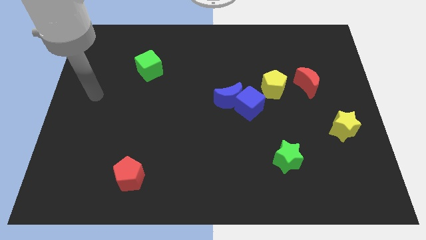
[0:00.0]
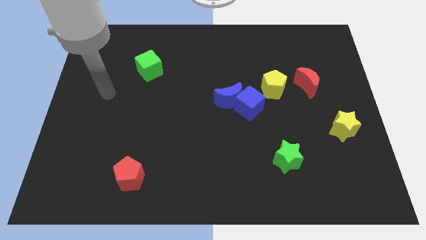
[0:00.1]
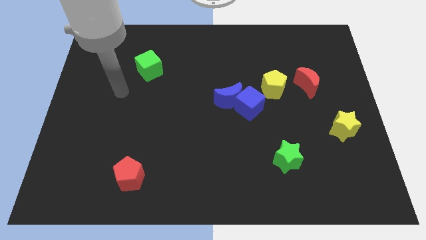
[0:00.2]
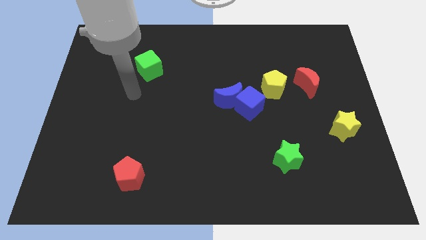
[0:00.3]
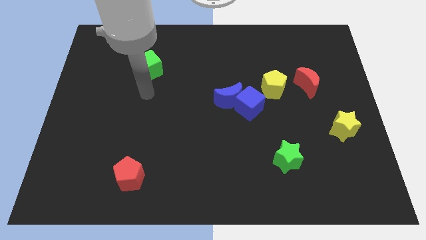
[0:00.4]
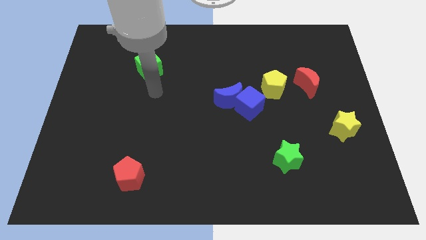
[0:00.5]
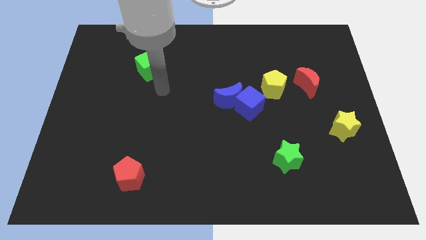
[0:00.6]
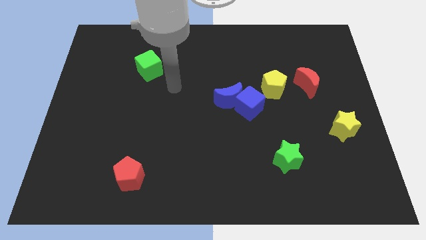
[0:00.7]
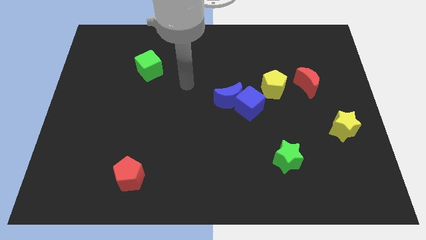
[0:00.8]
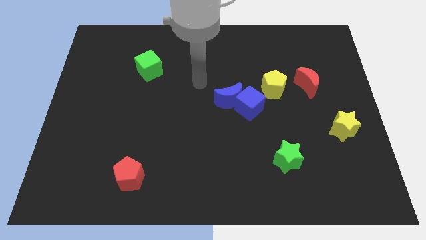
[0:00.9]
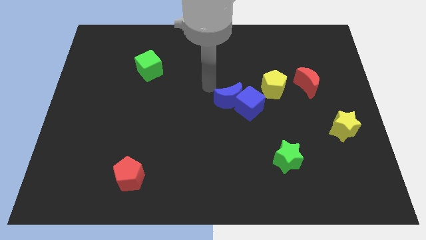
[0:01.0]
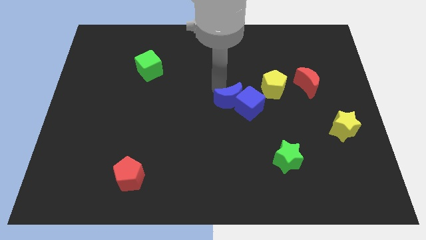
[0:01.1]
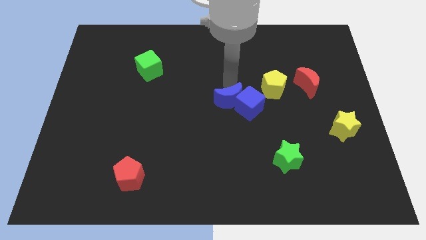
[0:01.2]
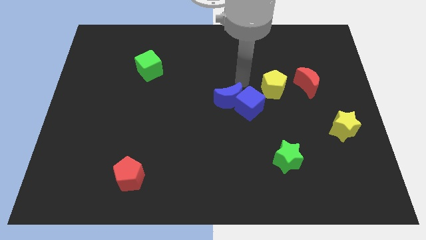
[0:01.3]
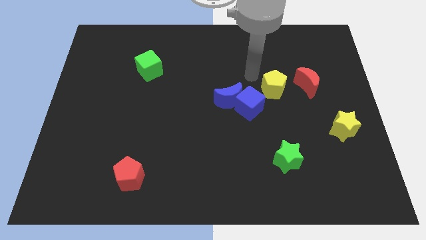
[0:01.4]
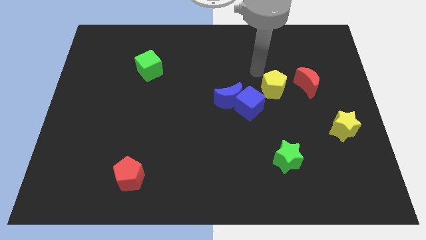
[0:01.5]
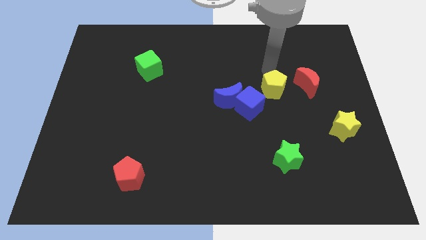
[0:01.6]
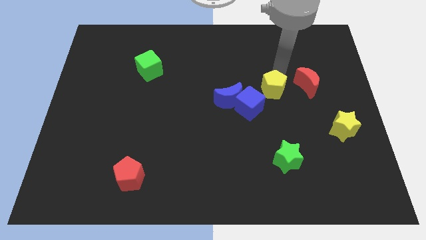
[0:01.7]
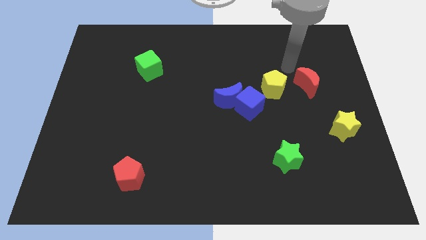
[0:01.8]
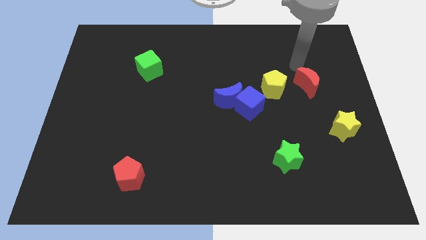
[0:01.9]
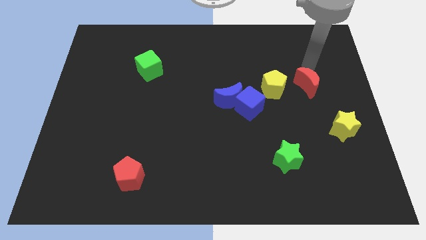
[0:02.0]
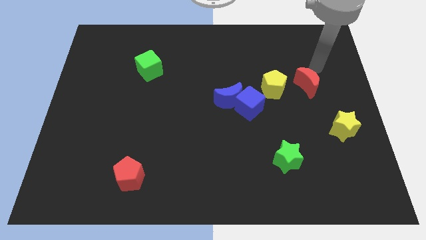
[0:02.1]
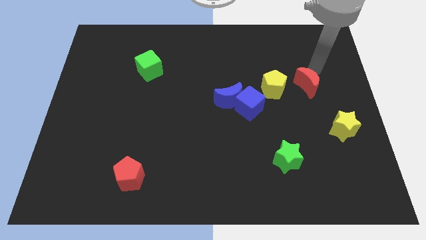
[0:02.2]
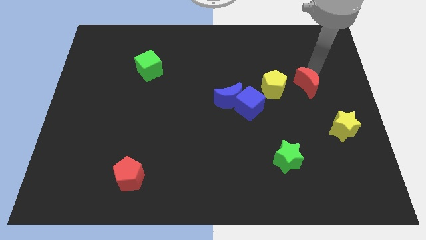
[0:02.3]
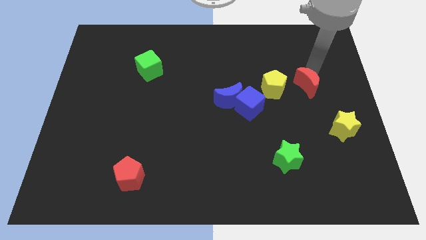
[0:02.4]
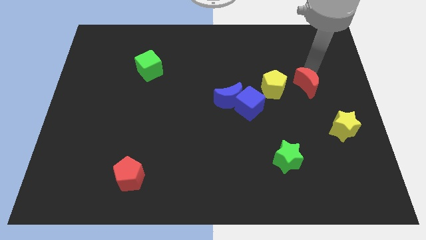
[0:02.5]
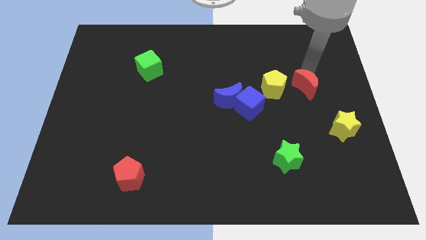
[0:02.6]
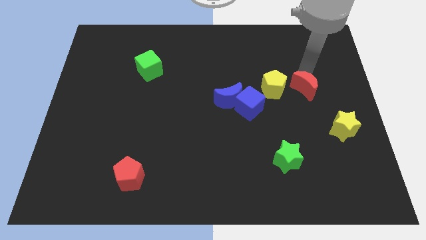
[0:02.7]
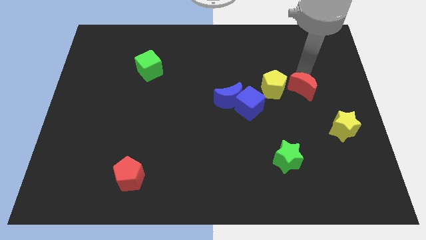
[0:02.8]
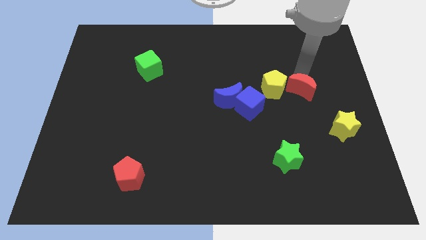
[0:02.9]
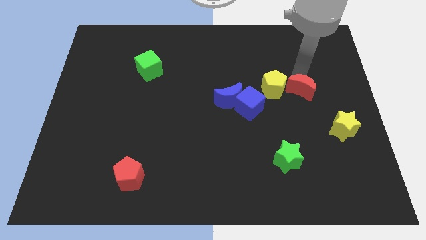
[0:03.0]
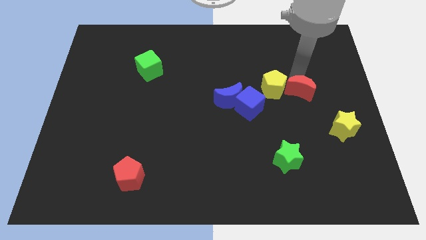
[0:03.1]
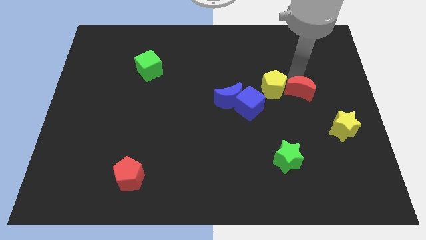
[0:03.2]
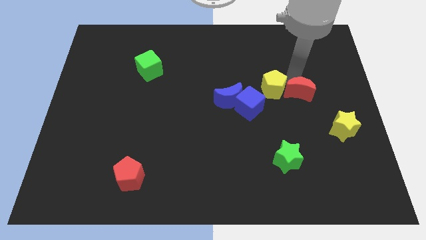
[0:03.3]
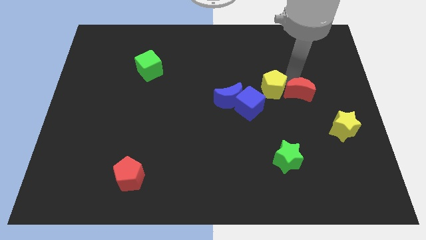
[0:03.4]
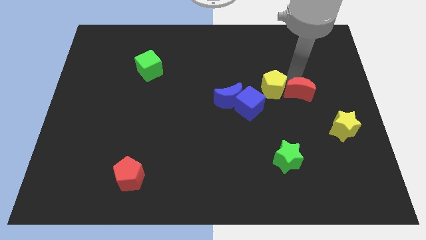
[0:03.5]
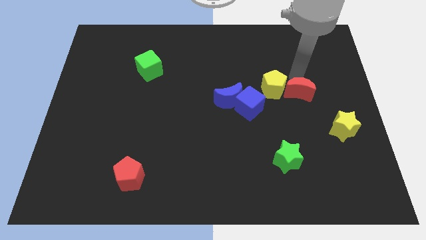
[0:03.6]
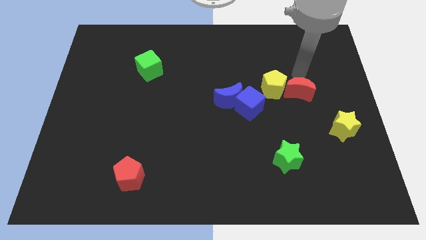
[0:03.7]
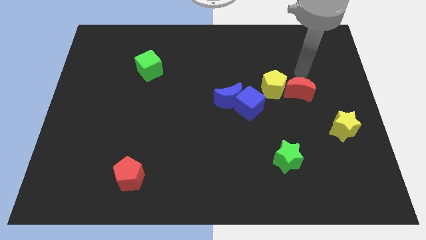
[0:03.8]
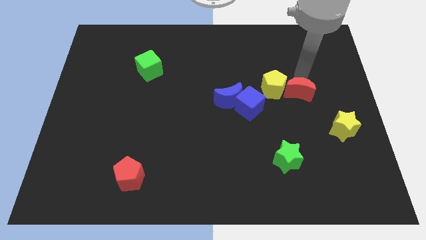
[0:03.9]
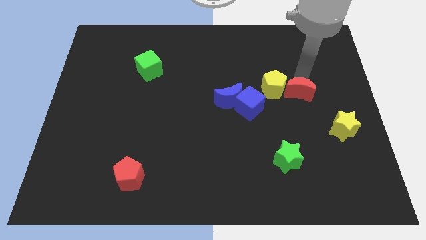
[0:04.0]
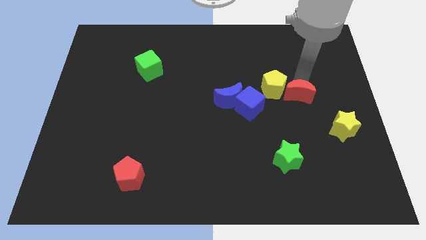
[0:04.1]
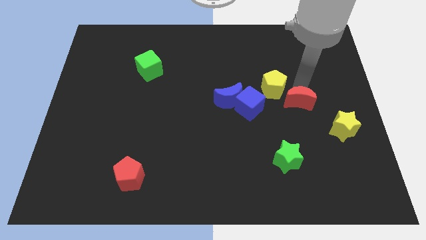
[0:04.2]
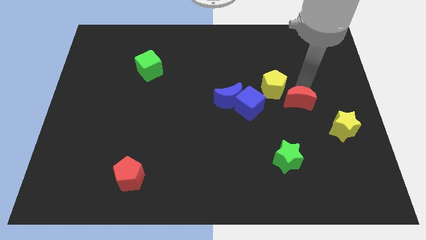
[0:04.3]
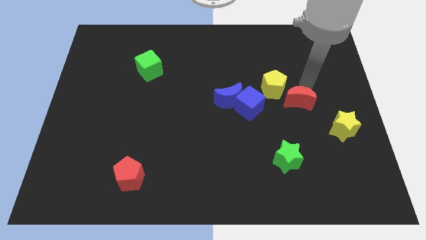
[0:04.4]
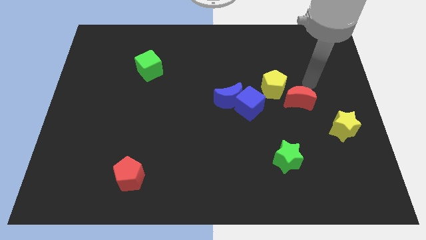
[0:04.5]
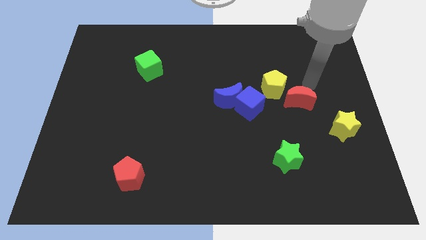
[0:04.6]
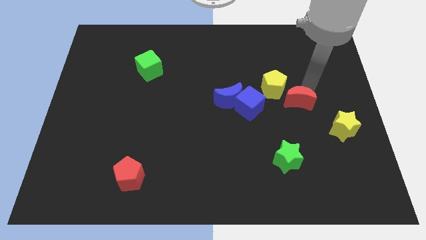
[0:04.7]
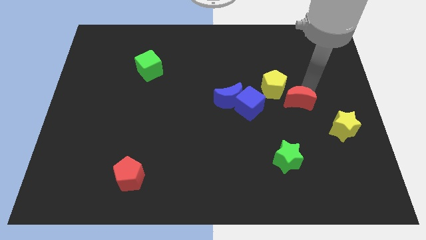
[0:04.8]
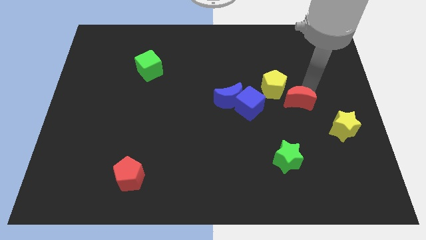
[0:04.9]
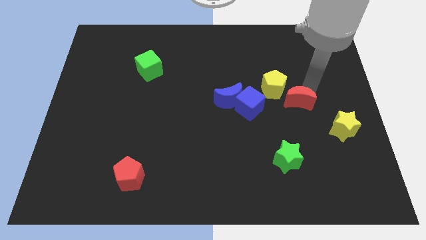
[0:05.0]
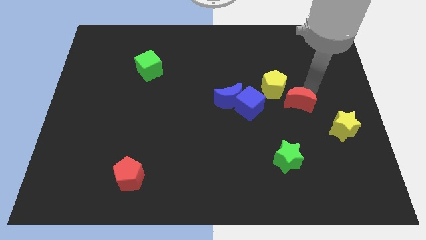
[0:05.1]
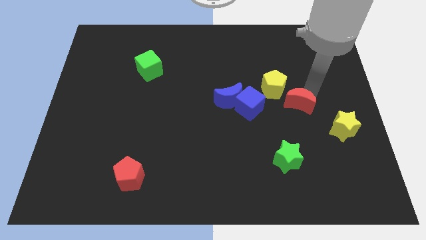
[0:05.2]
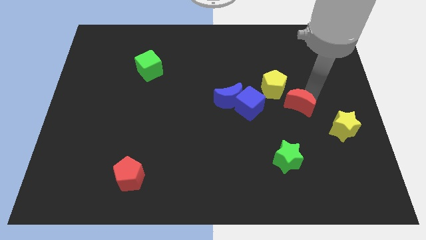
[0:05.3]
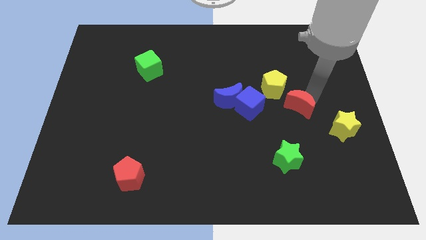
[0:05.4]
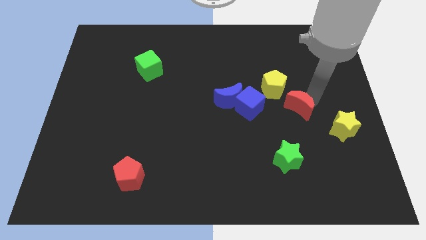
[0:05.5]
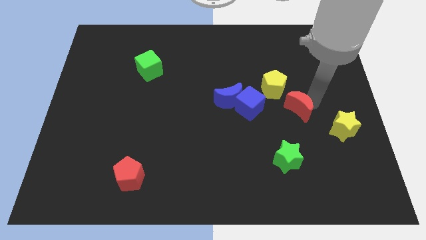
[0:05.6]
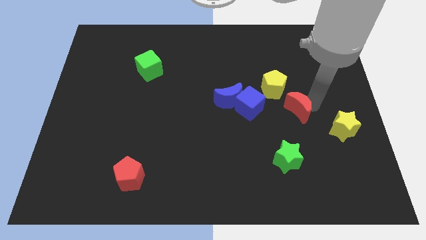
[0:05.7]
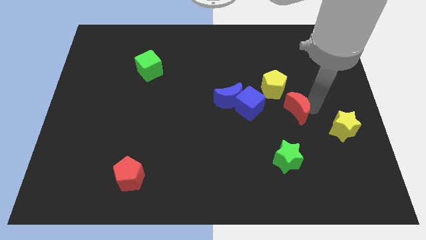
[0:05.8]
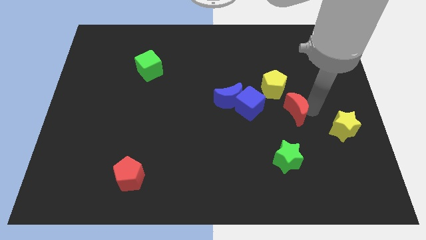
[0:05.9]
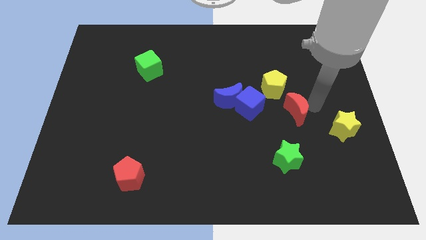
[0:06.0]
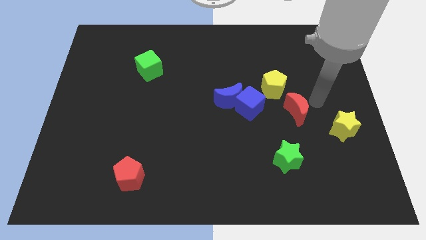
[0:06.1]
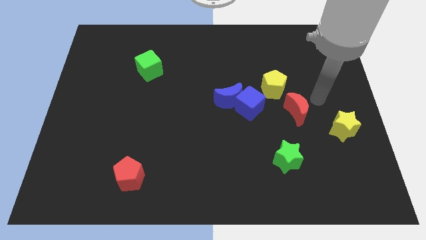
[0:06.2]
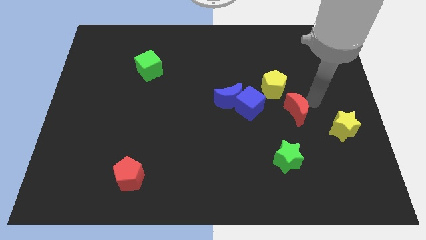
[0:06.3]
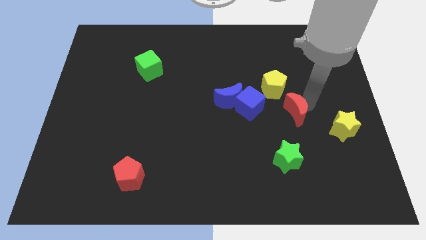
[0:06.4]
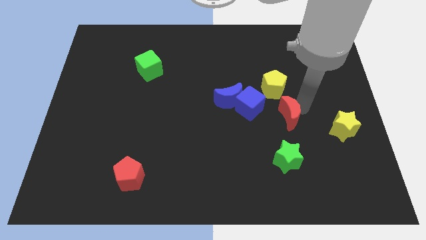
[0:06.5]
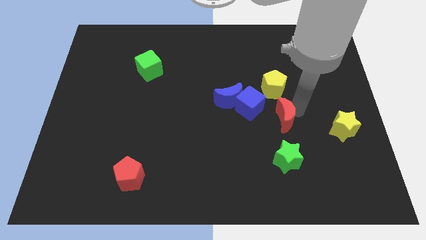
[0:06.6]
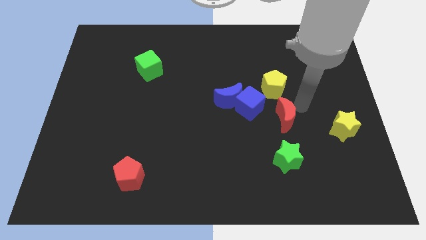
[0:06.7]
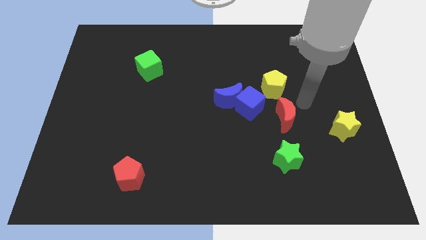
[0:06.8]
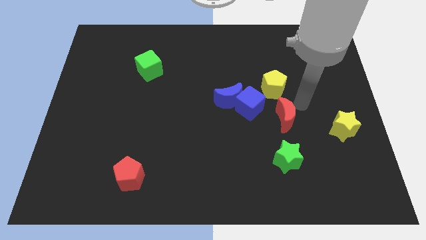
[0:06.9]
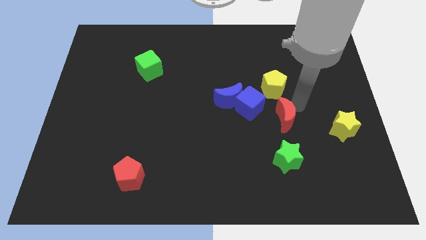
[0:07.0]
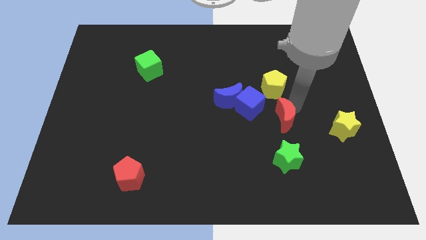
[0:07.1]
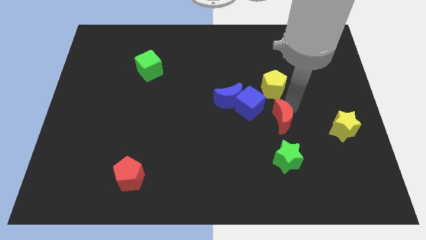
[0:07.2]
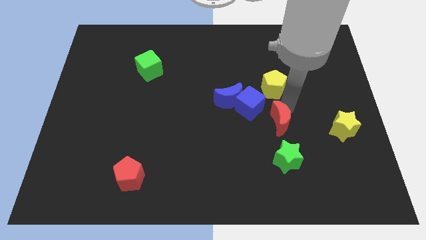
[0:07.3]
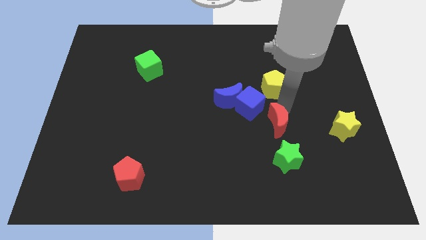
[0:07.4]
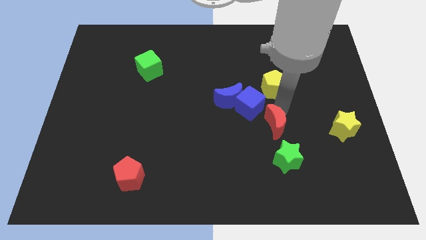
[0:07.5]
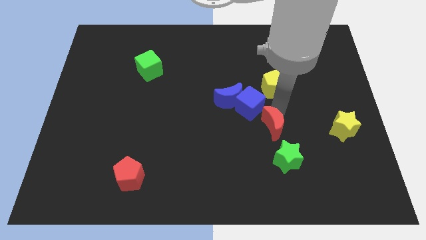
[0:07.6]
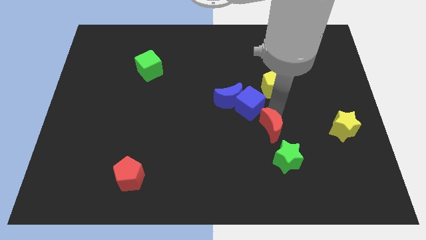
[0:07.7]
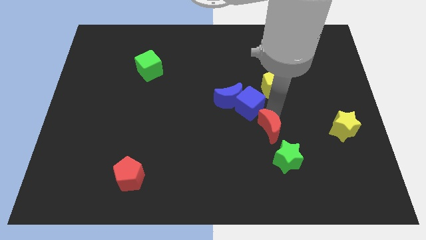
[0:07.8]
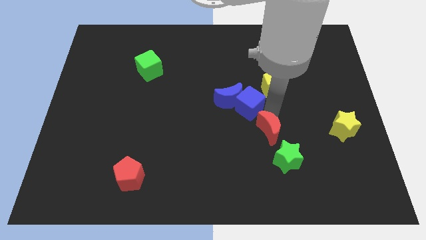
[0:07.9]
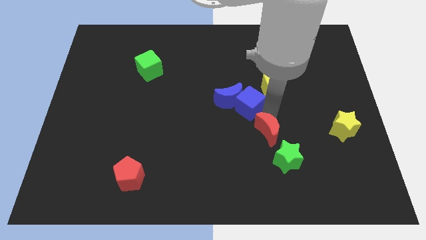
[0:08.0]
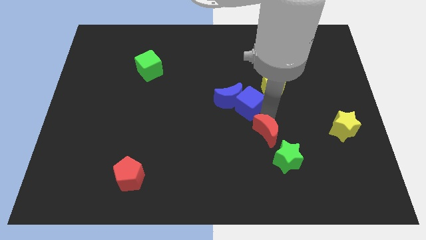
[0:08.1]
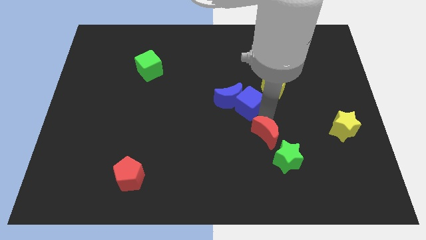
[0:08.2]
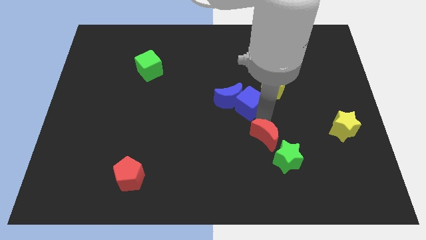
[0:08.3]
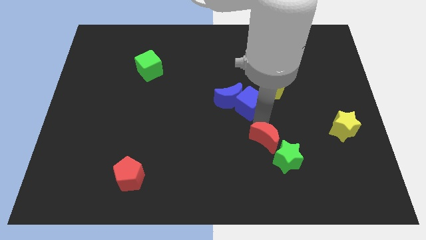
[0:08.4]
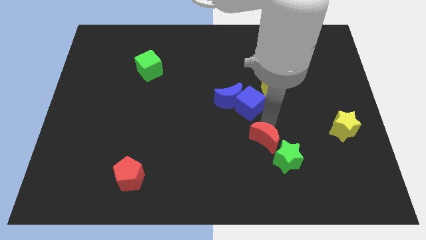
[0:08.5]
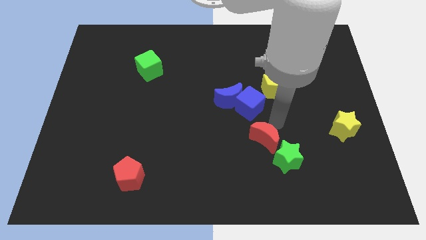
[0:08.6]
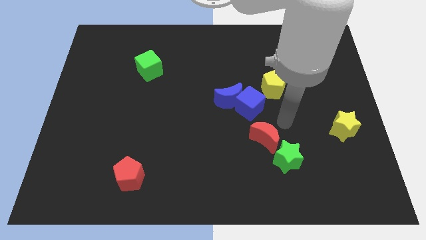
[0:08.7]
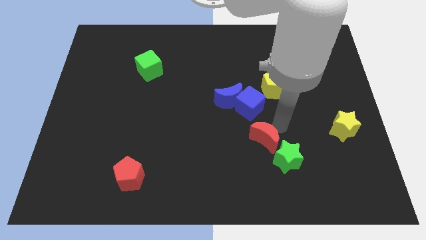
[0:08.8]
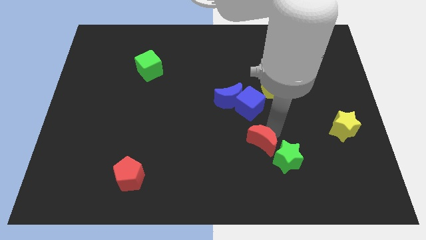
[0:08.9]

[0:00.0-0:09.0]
push the red moon left of the green star
